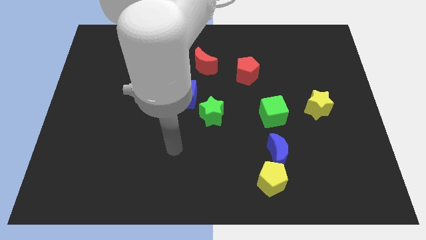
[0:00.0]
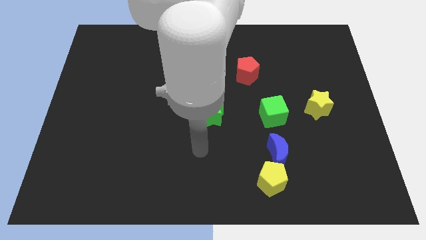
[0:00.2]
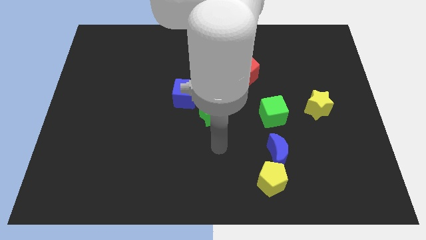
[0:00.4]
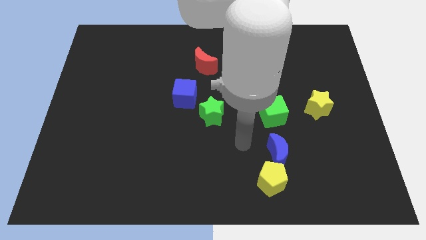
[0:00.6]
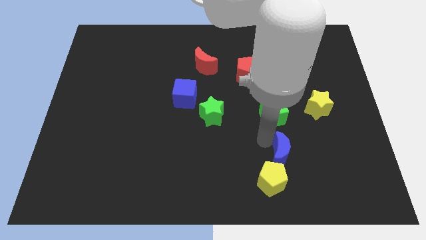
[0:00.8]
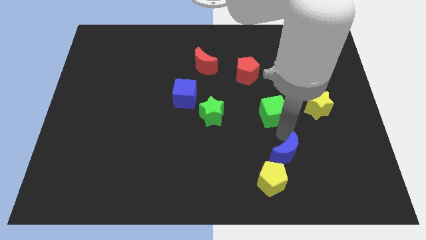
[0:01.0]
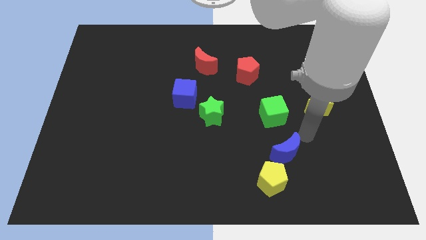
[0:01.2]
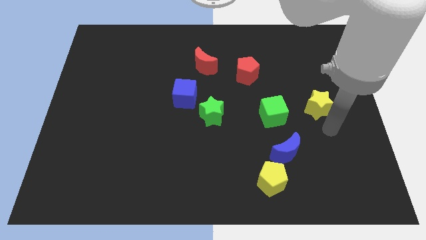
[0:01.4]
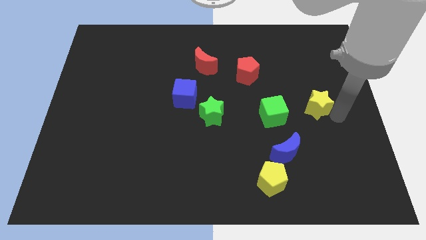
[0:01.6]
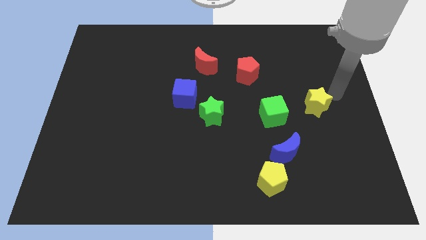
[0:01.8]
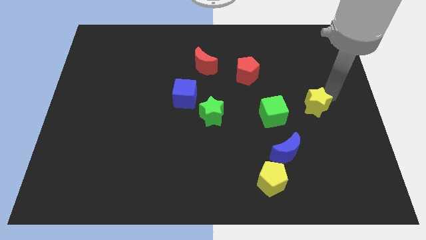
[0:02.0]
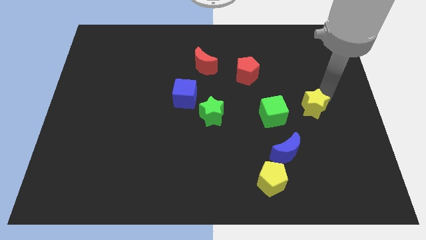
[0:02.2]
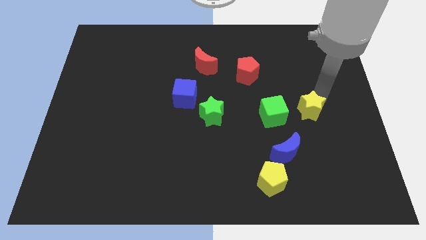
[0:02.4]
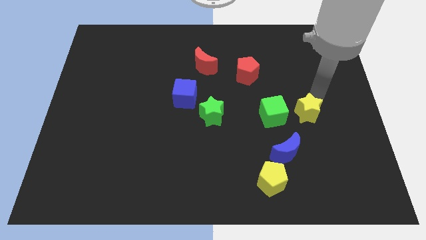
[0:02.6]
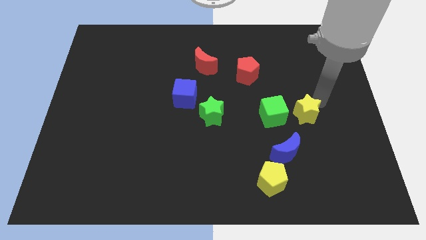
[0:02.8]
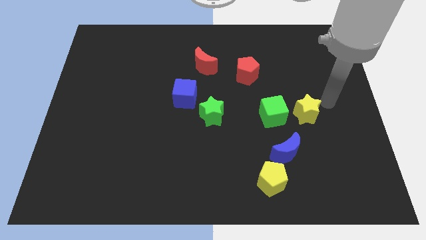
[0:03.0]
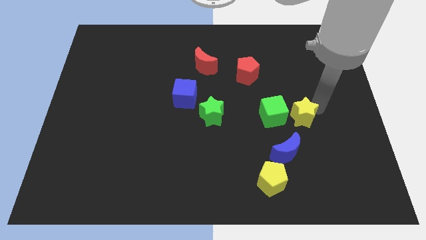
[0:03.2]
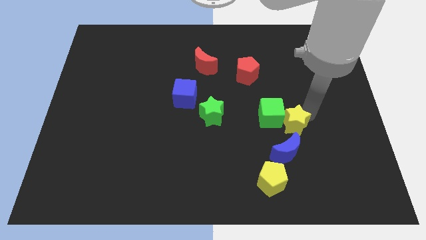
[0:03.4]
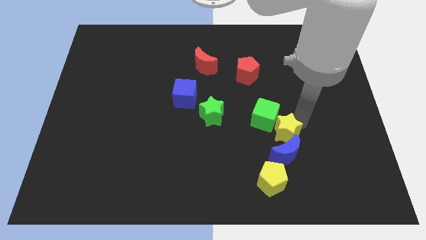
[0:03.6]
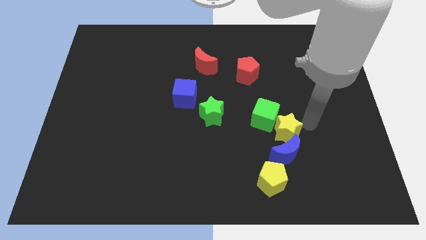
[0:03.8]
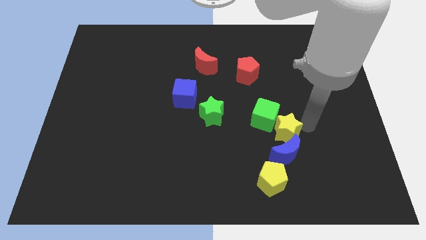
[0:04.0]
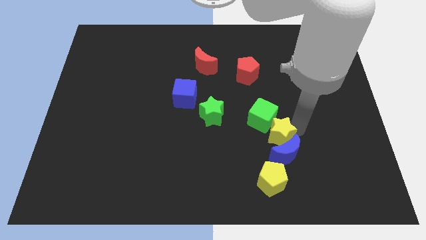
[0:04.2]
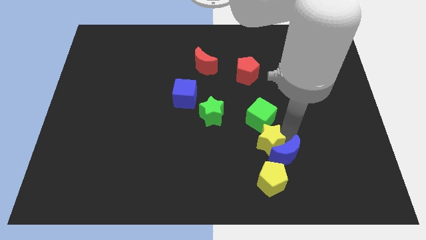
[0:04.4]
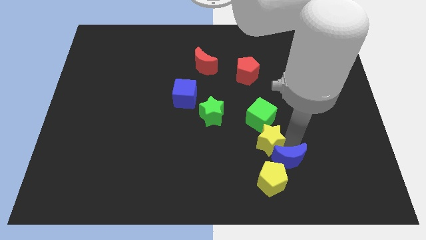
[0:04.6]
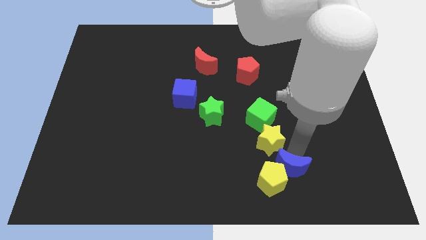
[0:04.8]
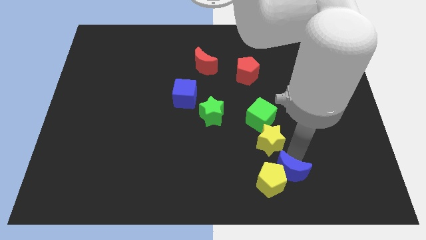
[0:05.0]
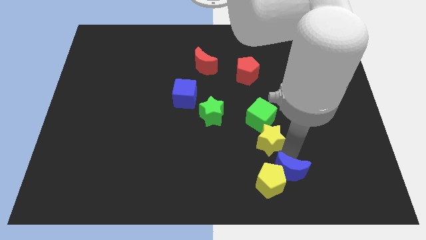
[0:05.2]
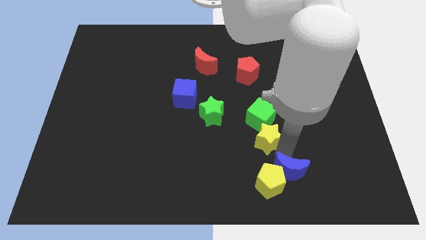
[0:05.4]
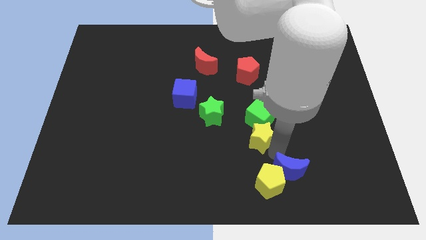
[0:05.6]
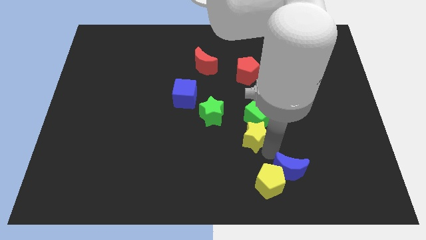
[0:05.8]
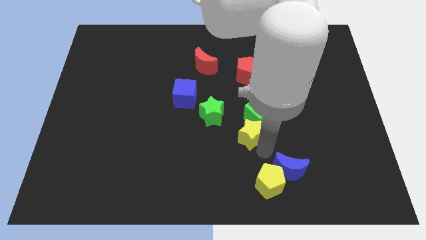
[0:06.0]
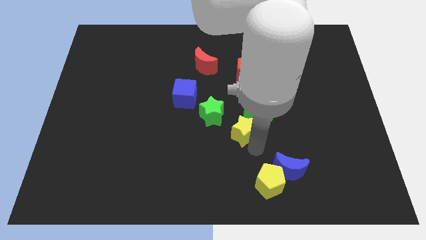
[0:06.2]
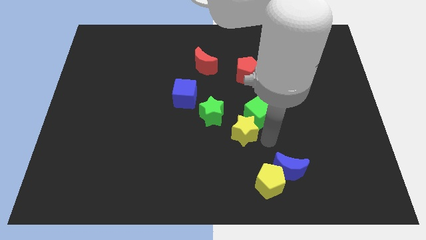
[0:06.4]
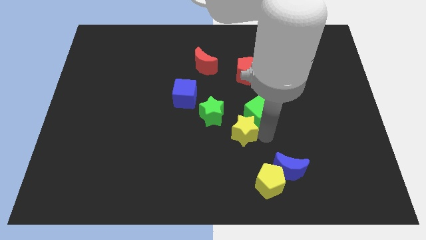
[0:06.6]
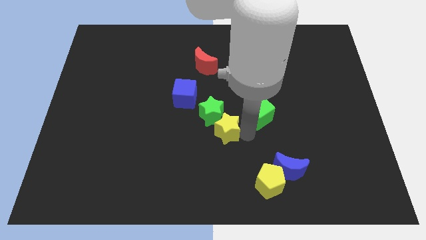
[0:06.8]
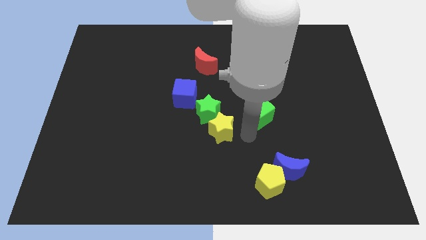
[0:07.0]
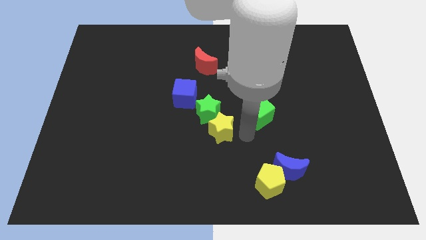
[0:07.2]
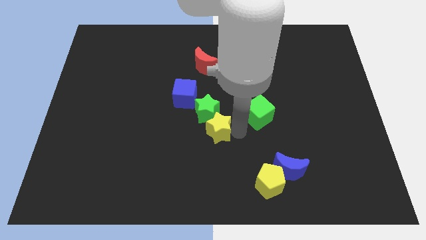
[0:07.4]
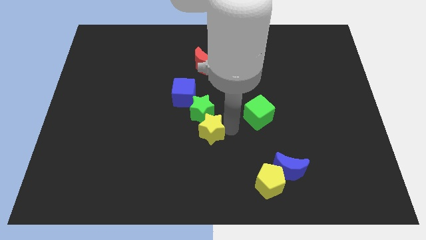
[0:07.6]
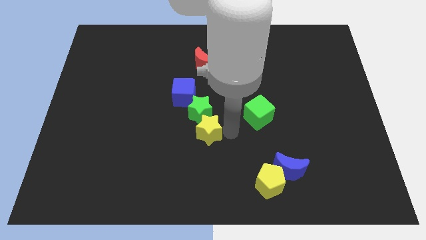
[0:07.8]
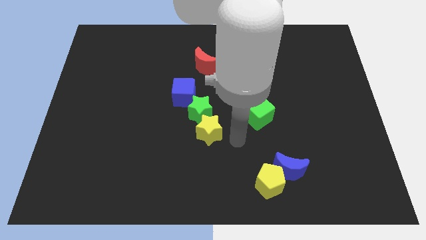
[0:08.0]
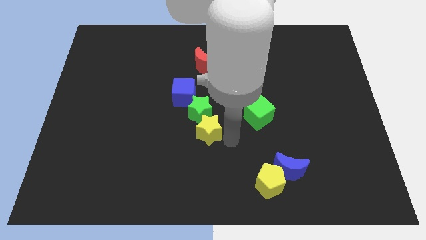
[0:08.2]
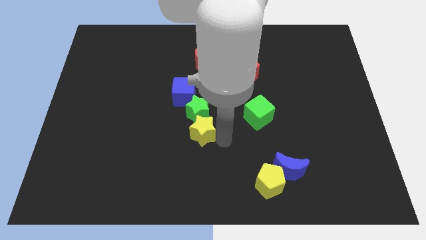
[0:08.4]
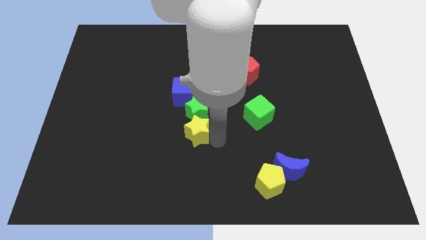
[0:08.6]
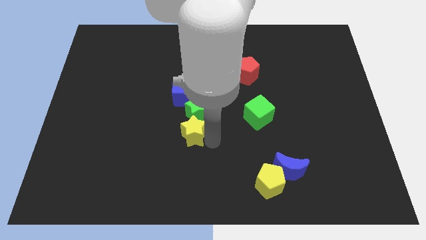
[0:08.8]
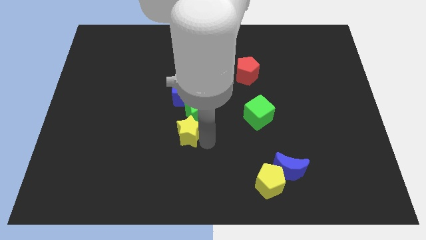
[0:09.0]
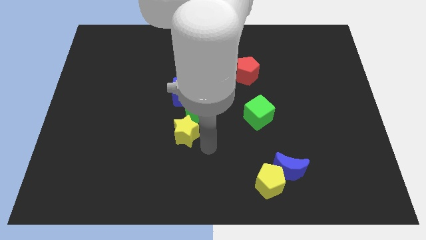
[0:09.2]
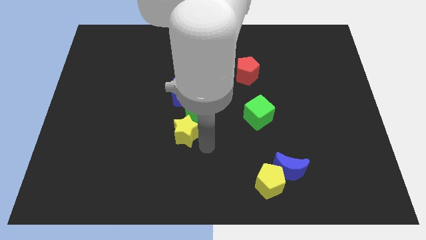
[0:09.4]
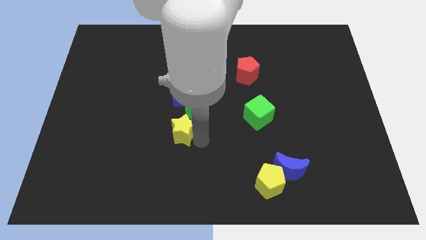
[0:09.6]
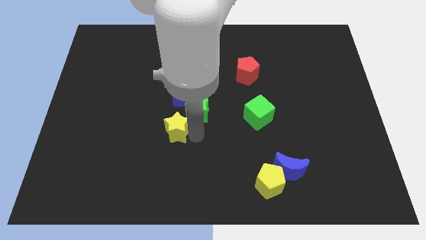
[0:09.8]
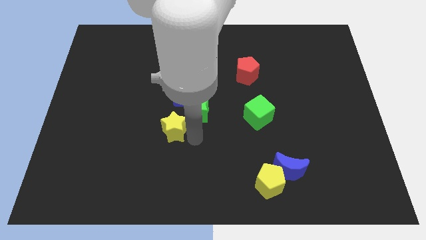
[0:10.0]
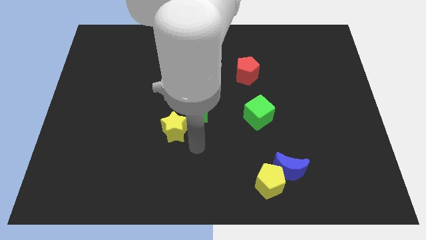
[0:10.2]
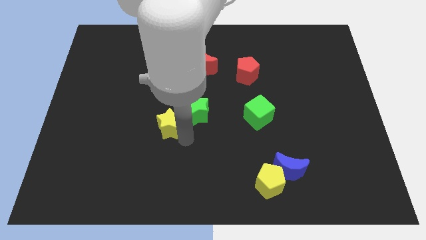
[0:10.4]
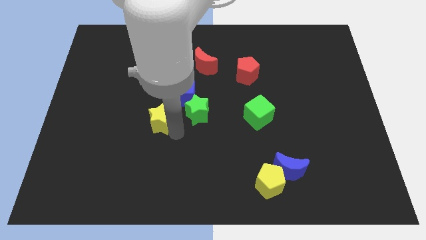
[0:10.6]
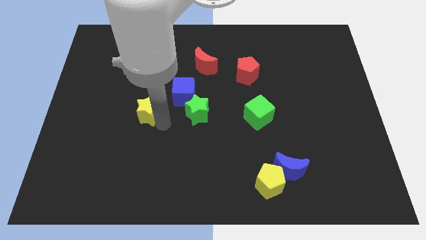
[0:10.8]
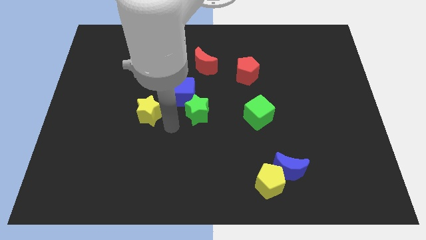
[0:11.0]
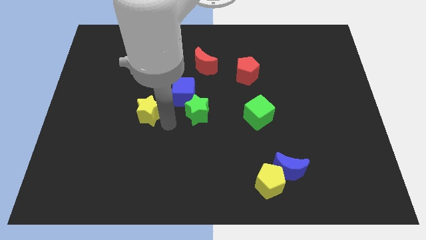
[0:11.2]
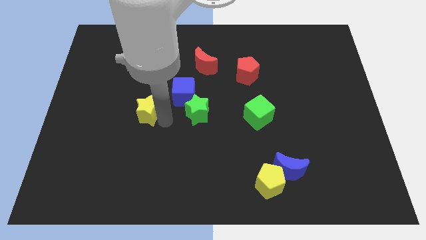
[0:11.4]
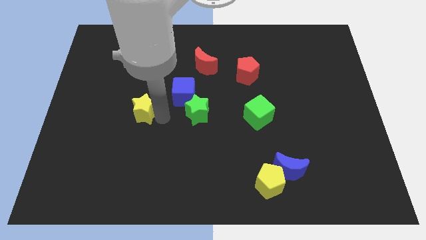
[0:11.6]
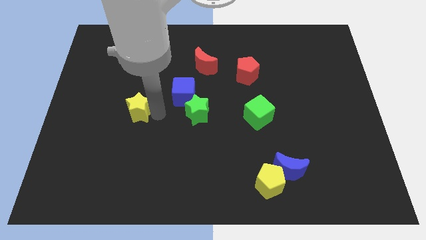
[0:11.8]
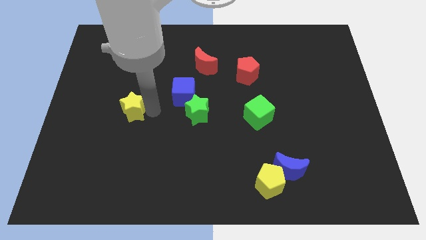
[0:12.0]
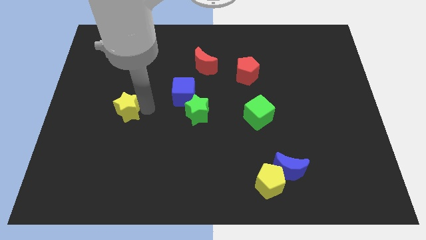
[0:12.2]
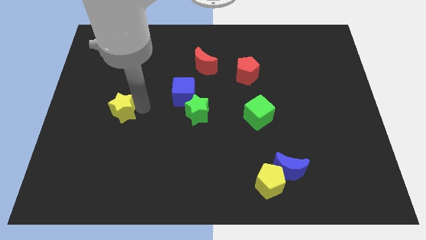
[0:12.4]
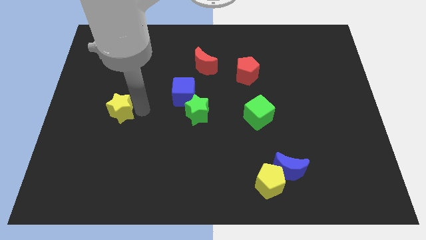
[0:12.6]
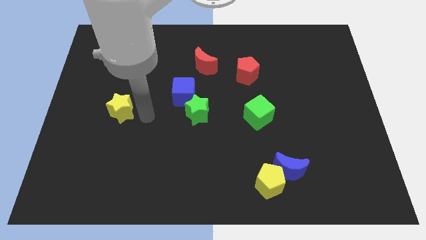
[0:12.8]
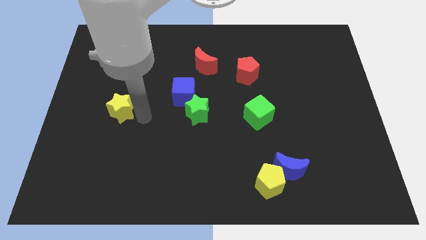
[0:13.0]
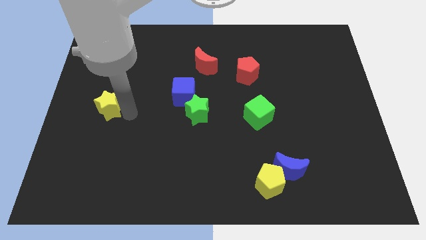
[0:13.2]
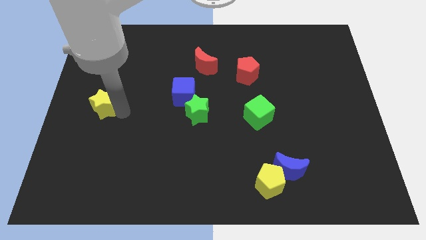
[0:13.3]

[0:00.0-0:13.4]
push the yellow star to the center left
